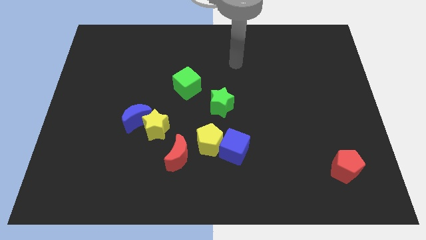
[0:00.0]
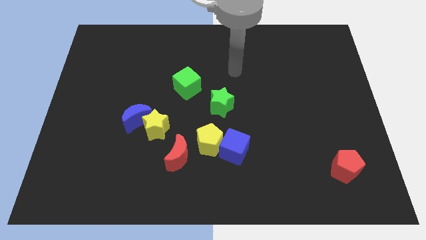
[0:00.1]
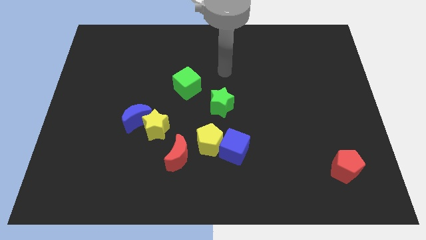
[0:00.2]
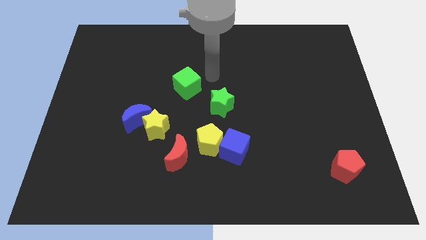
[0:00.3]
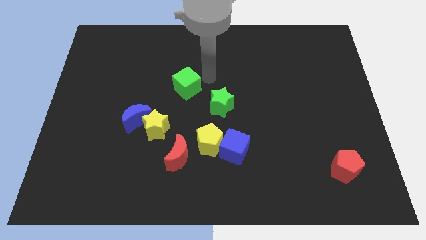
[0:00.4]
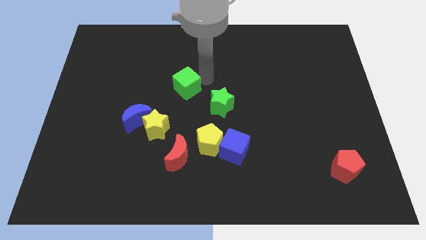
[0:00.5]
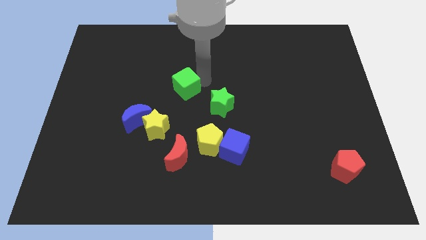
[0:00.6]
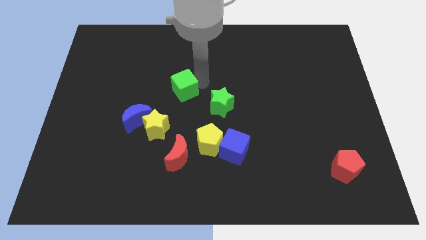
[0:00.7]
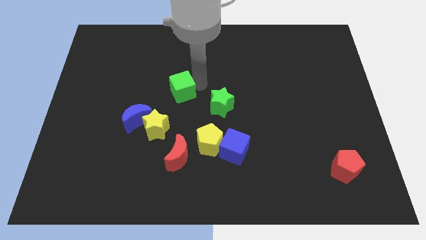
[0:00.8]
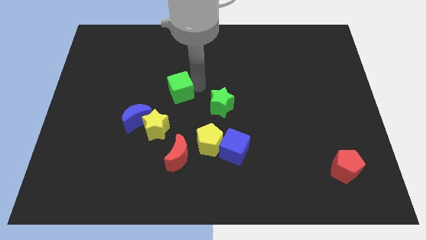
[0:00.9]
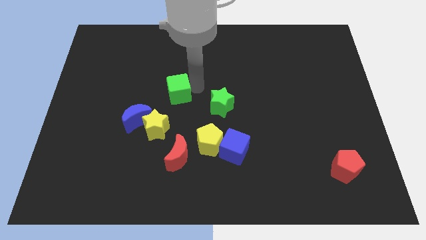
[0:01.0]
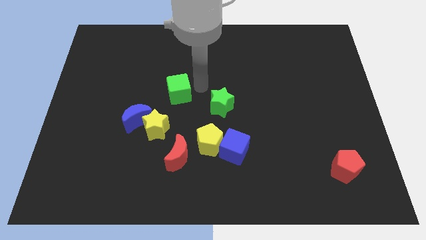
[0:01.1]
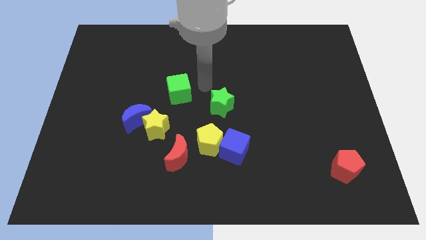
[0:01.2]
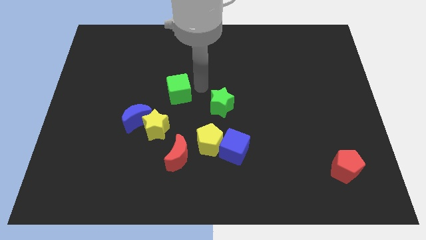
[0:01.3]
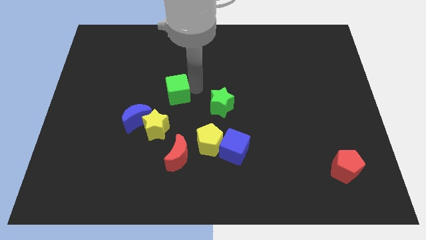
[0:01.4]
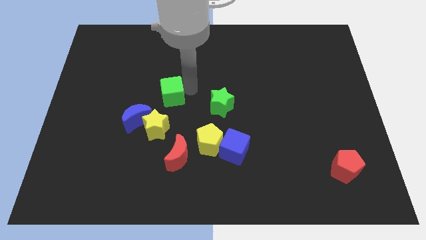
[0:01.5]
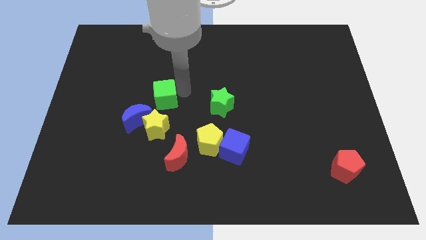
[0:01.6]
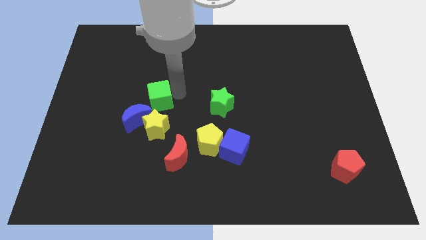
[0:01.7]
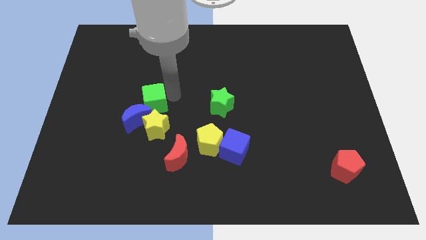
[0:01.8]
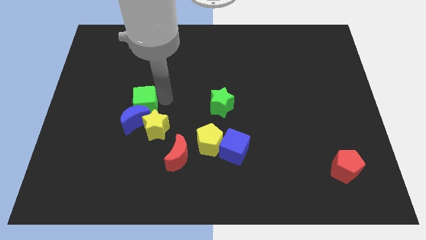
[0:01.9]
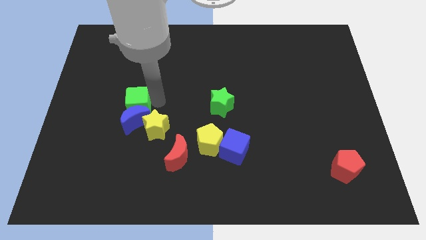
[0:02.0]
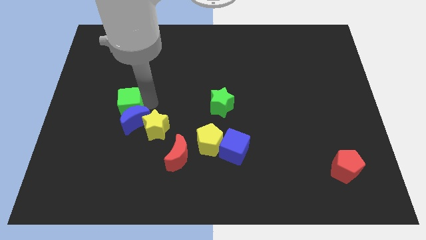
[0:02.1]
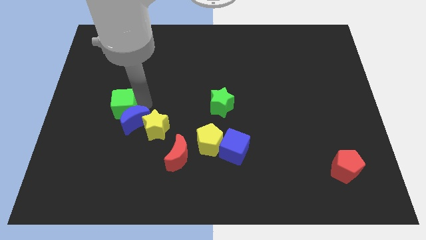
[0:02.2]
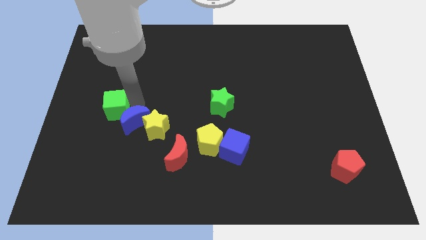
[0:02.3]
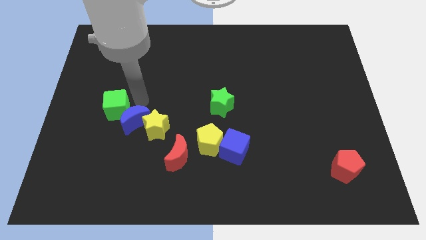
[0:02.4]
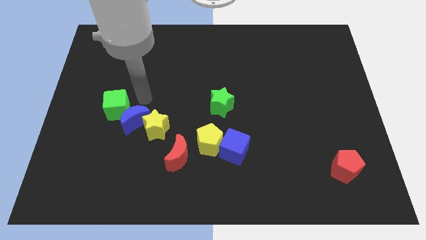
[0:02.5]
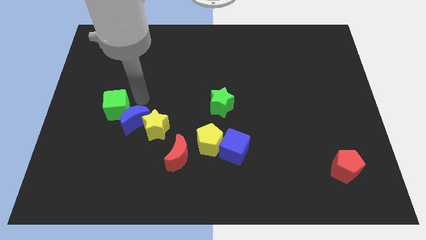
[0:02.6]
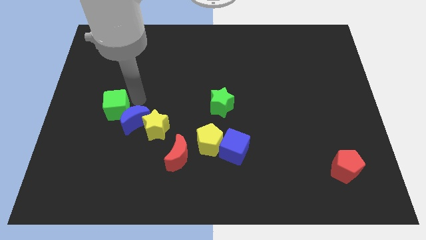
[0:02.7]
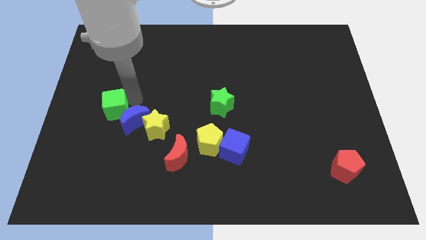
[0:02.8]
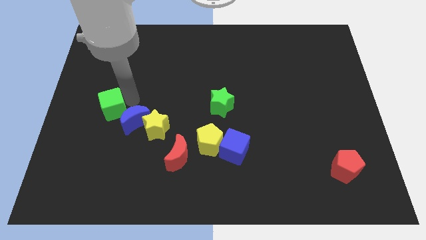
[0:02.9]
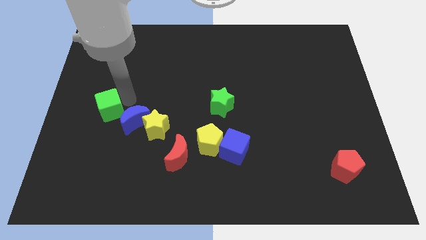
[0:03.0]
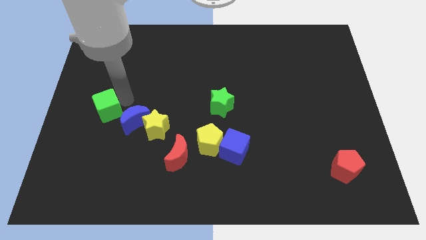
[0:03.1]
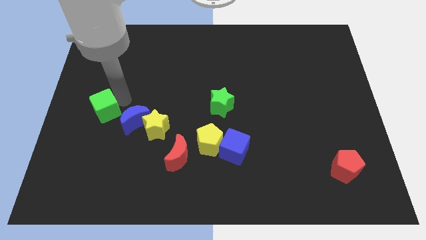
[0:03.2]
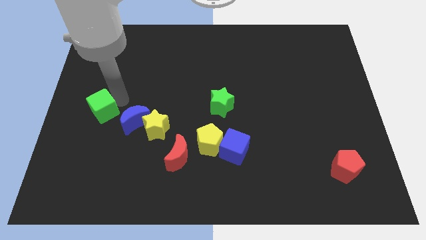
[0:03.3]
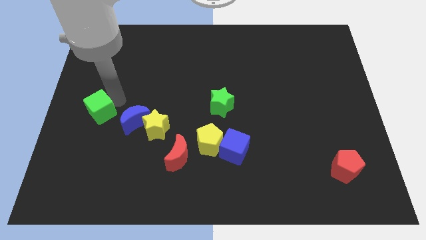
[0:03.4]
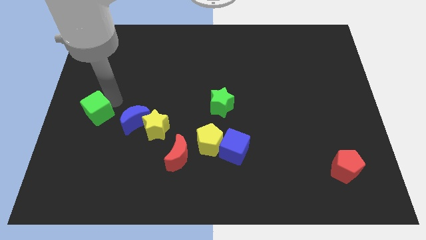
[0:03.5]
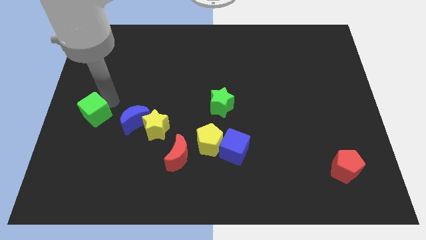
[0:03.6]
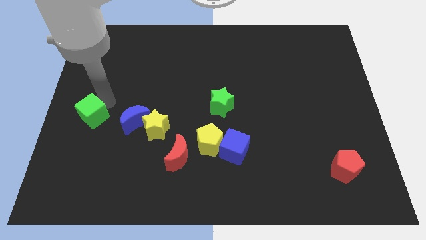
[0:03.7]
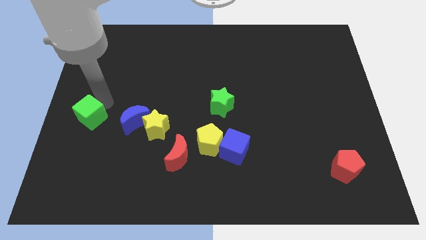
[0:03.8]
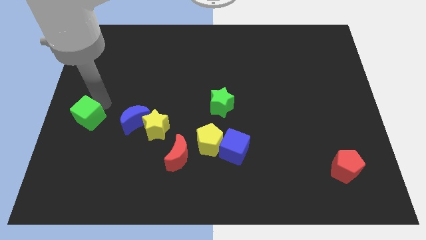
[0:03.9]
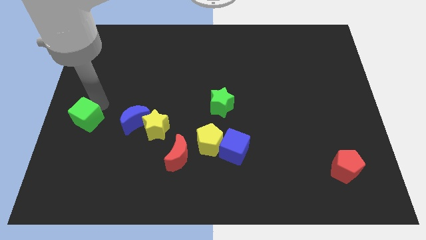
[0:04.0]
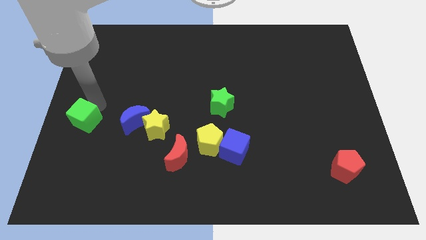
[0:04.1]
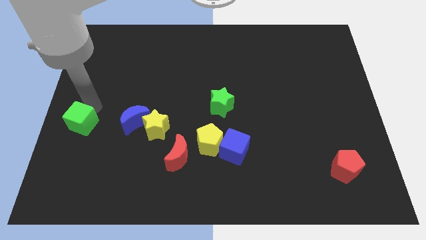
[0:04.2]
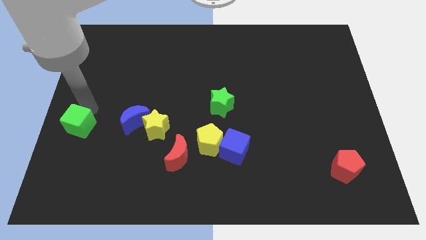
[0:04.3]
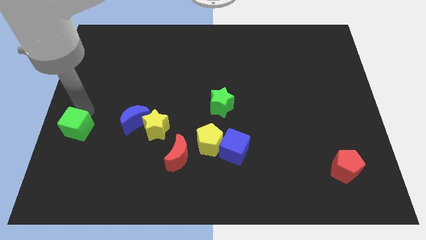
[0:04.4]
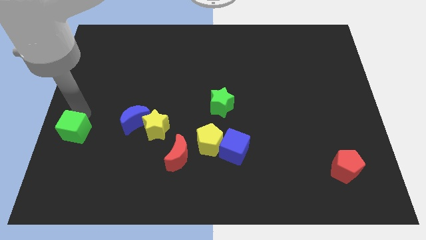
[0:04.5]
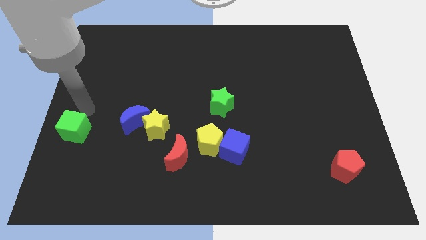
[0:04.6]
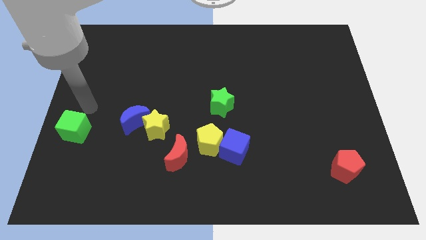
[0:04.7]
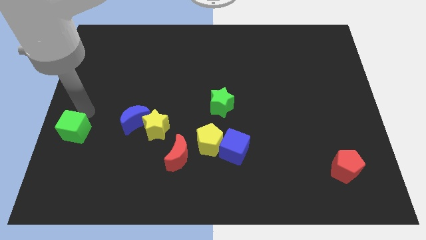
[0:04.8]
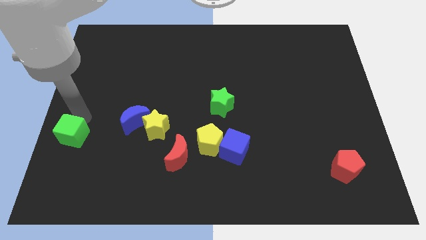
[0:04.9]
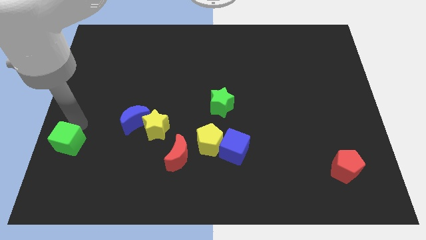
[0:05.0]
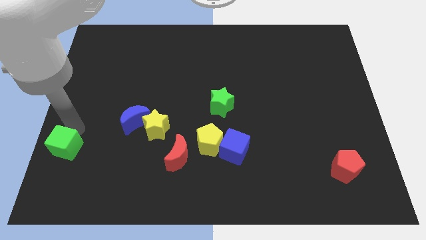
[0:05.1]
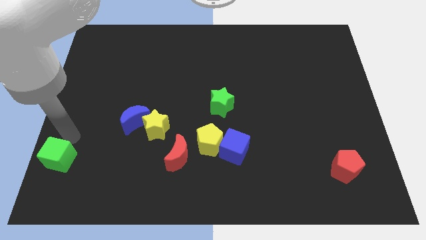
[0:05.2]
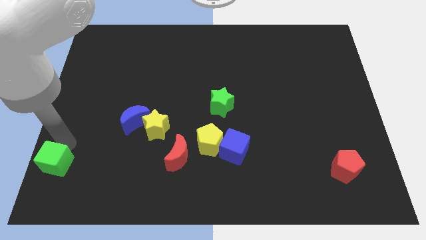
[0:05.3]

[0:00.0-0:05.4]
slide the green cube to the bottom left

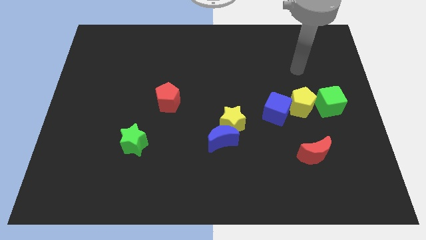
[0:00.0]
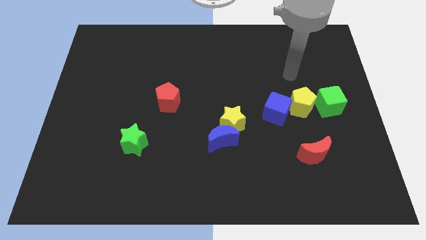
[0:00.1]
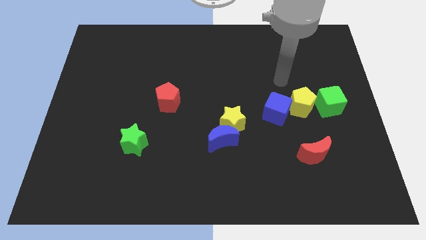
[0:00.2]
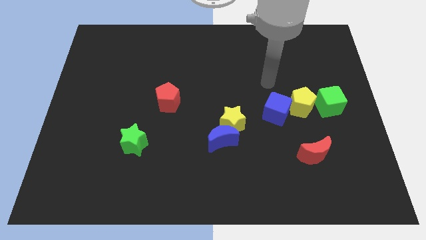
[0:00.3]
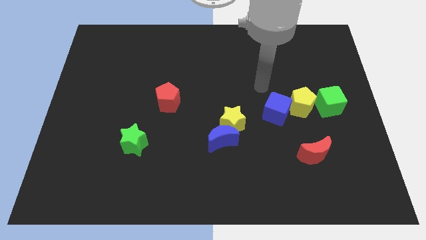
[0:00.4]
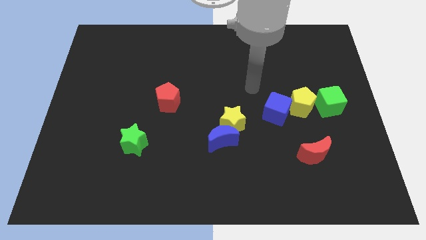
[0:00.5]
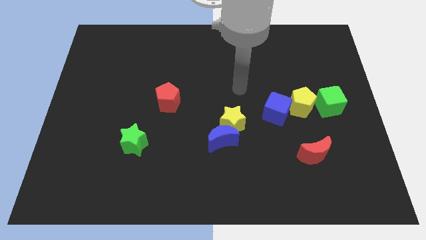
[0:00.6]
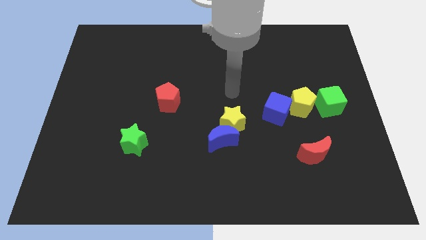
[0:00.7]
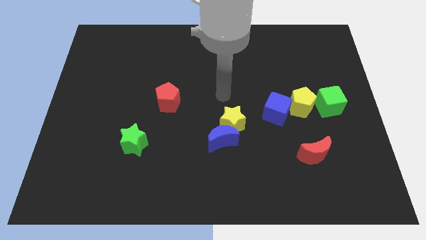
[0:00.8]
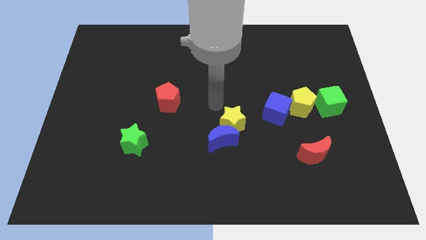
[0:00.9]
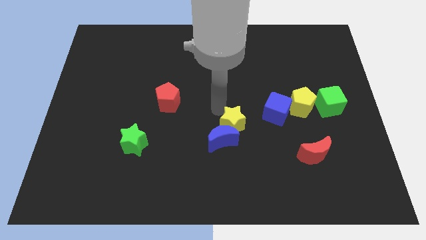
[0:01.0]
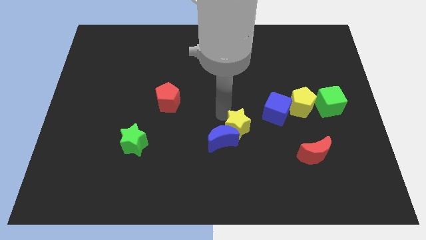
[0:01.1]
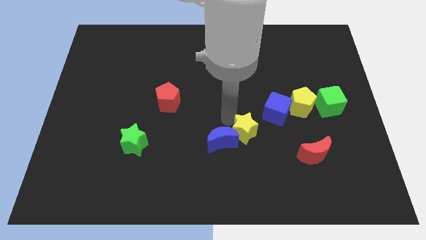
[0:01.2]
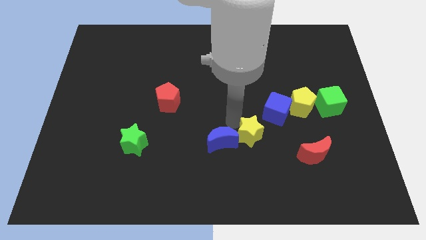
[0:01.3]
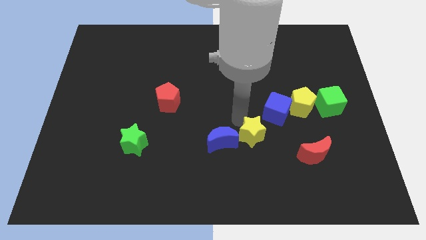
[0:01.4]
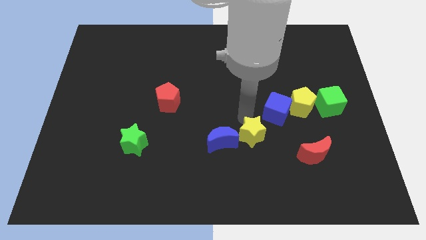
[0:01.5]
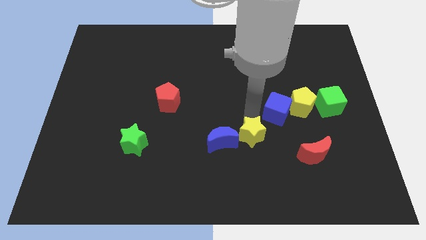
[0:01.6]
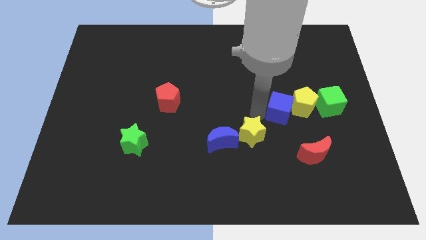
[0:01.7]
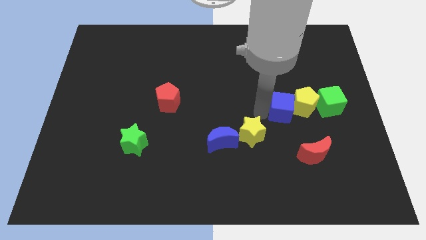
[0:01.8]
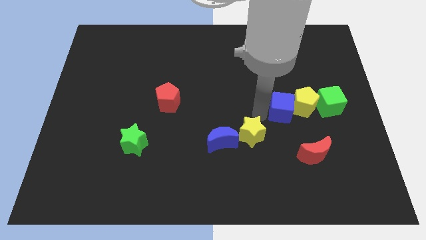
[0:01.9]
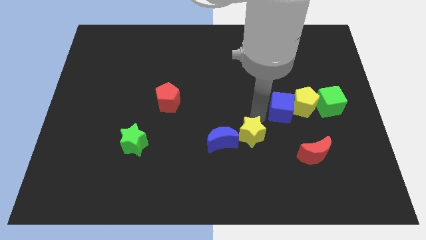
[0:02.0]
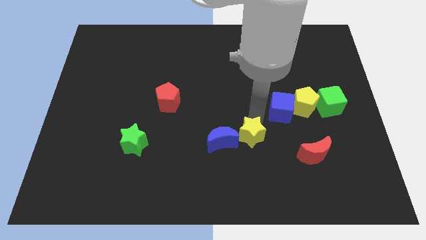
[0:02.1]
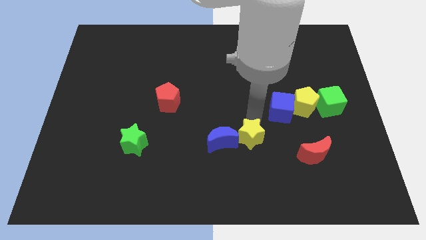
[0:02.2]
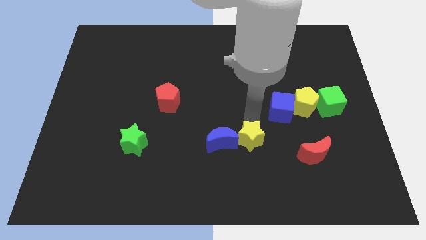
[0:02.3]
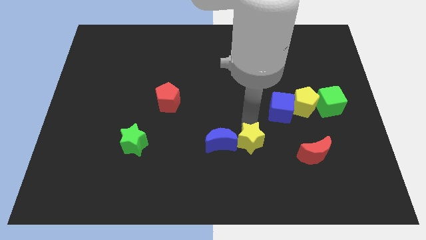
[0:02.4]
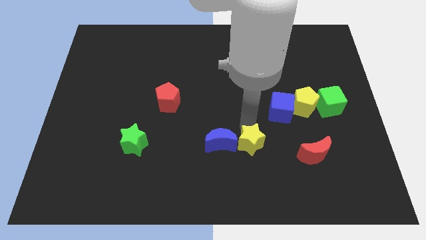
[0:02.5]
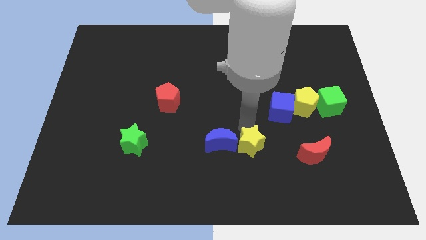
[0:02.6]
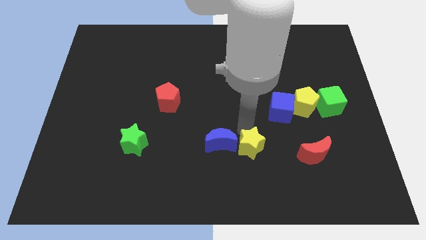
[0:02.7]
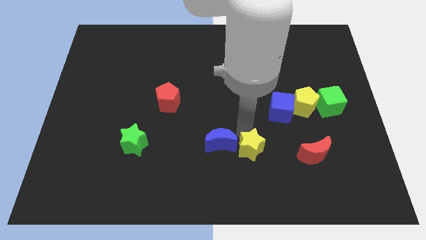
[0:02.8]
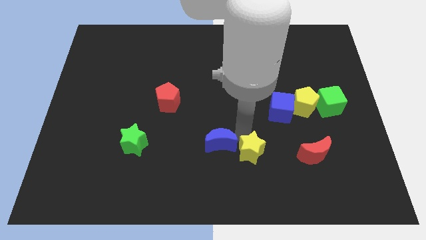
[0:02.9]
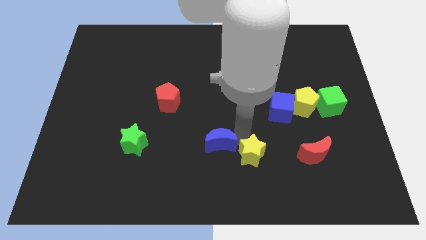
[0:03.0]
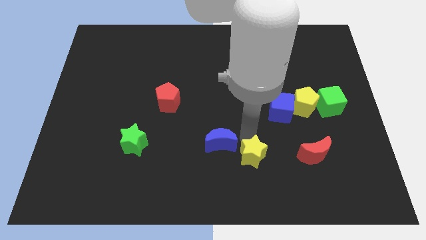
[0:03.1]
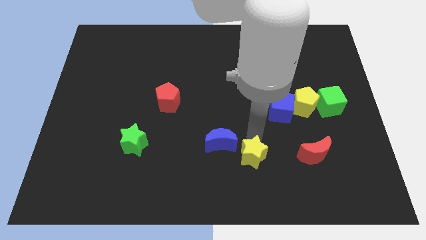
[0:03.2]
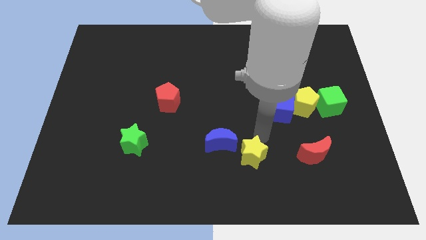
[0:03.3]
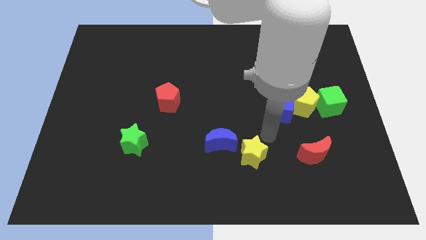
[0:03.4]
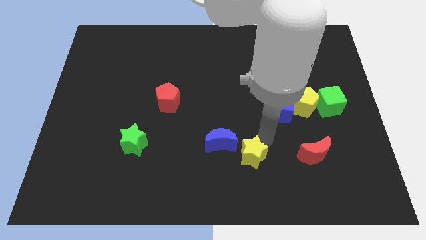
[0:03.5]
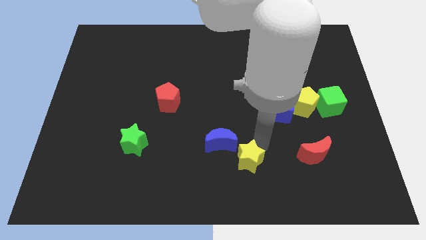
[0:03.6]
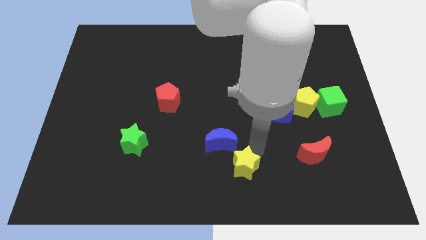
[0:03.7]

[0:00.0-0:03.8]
move the yellow star to the bottom
